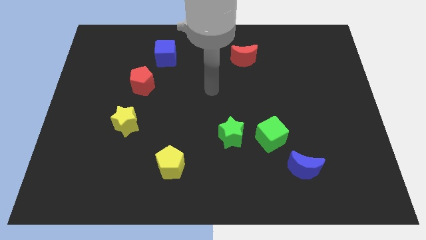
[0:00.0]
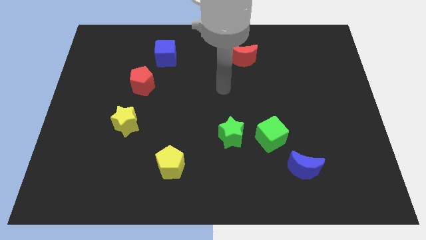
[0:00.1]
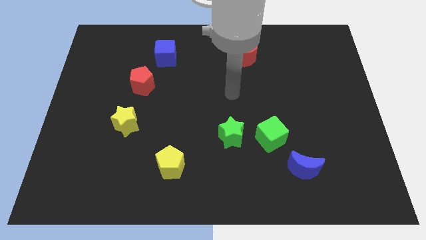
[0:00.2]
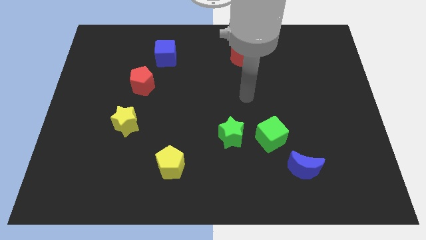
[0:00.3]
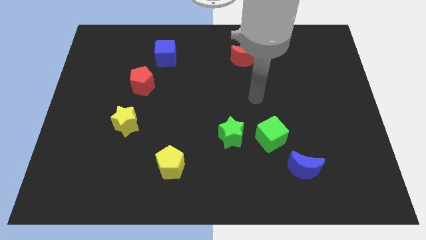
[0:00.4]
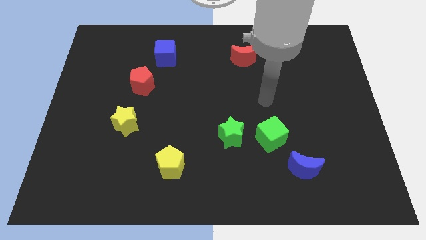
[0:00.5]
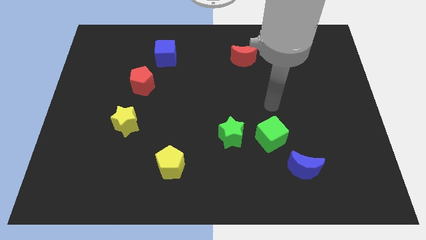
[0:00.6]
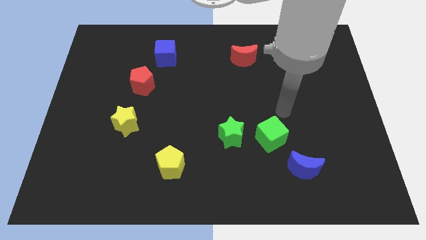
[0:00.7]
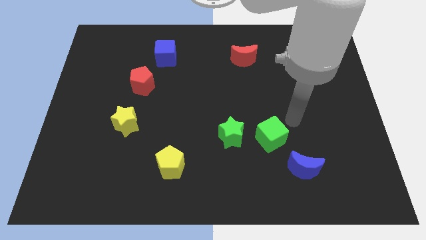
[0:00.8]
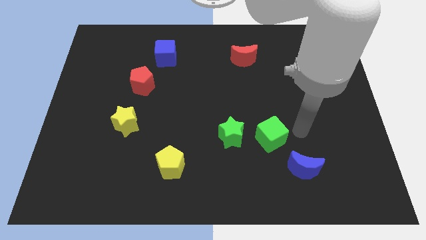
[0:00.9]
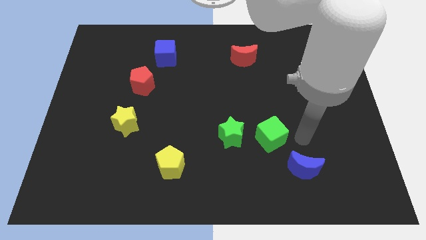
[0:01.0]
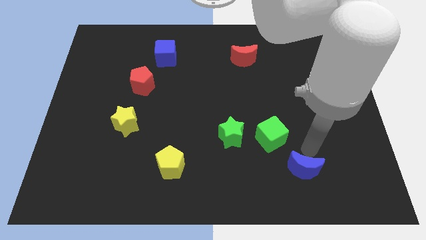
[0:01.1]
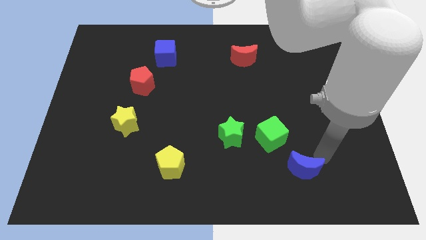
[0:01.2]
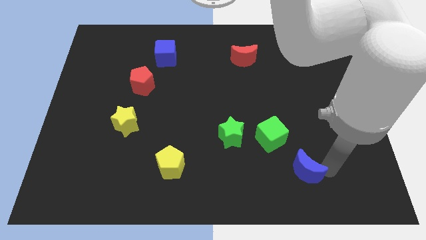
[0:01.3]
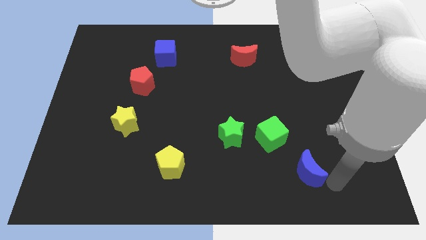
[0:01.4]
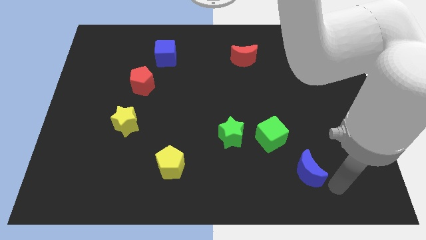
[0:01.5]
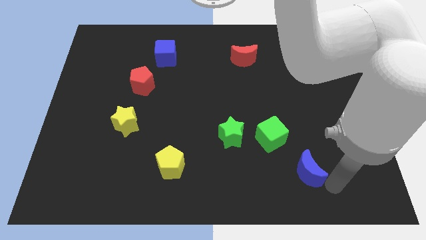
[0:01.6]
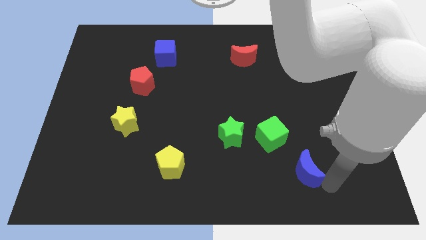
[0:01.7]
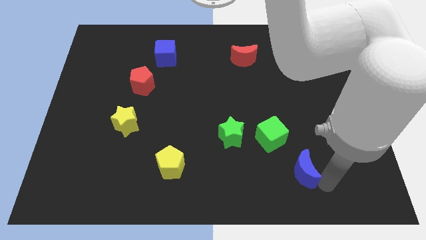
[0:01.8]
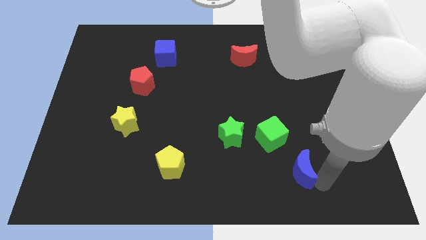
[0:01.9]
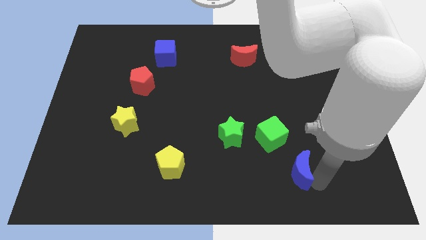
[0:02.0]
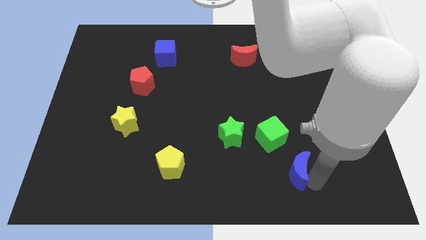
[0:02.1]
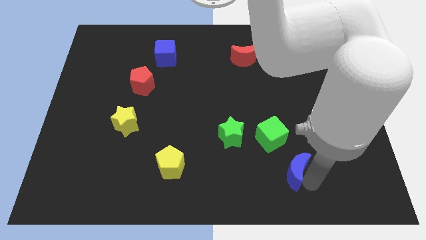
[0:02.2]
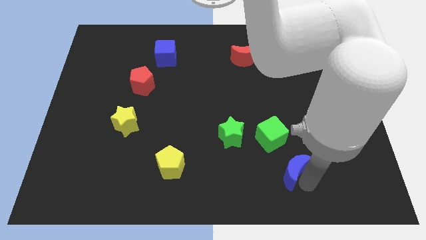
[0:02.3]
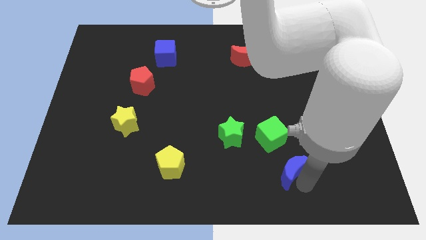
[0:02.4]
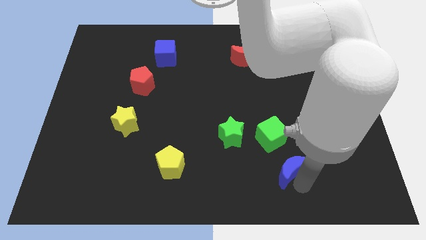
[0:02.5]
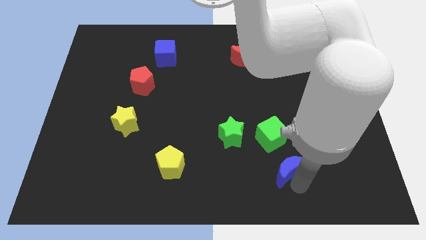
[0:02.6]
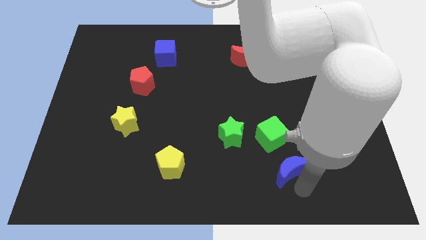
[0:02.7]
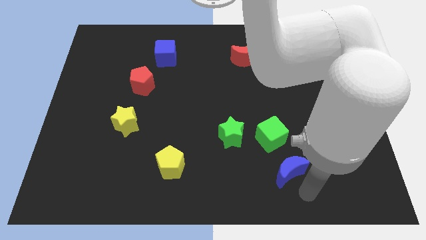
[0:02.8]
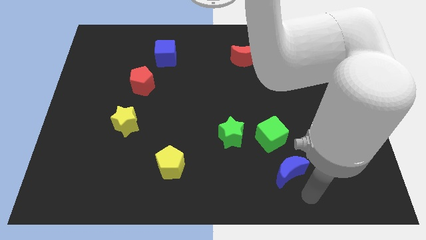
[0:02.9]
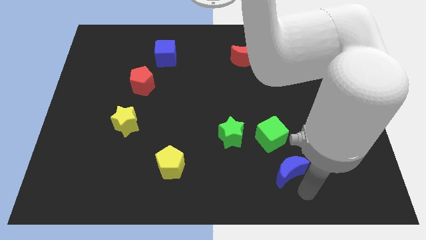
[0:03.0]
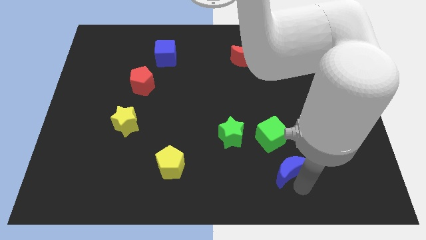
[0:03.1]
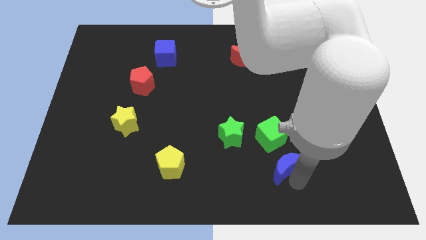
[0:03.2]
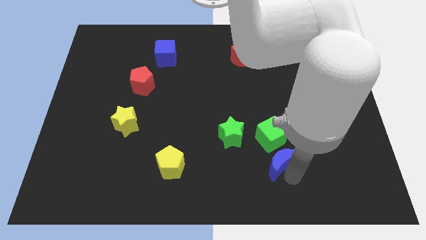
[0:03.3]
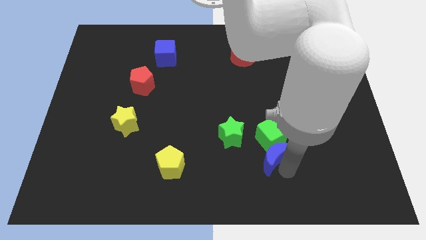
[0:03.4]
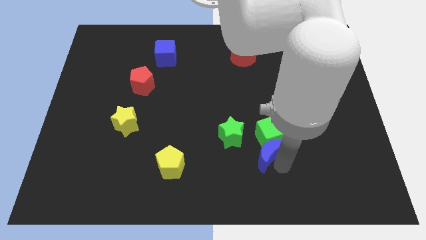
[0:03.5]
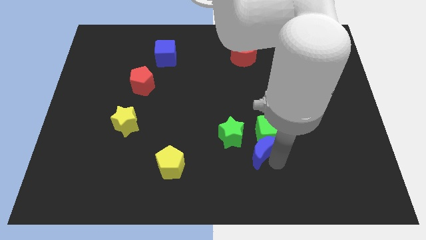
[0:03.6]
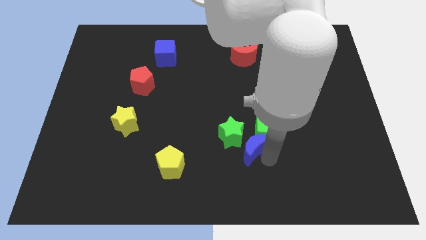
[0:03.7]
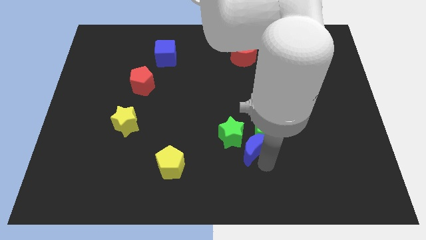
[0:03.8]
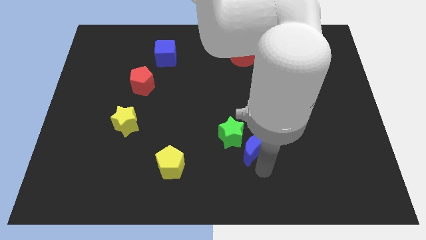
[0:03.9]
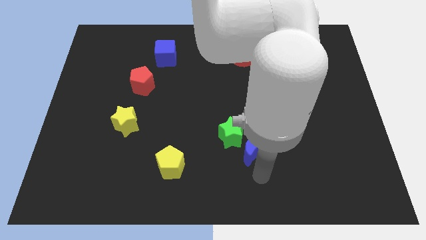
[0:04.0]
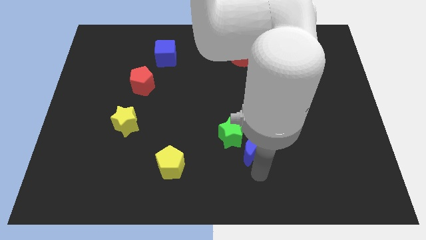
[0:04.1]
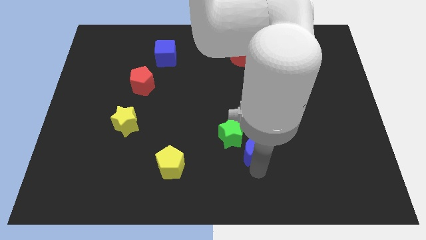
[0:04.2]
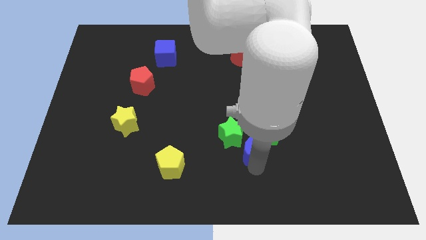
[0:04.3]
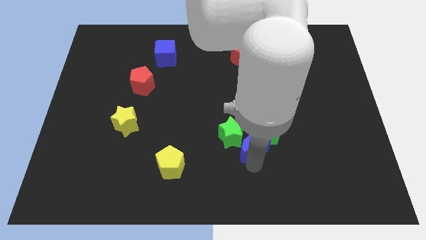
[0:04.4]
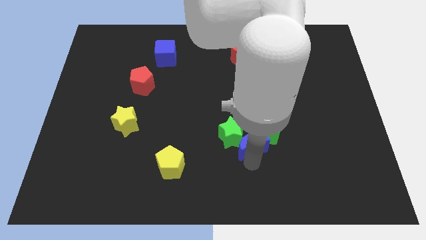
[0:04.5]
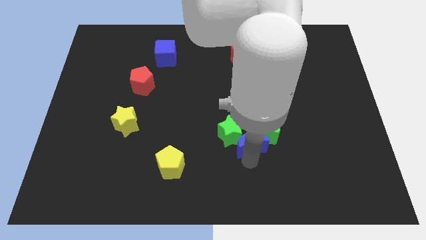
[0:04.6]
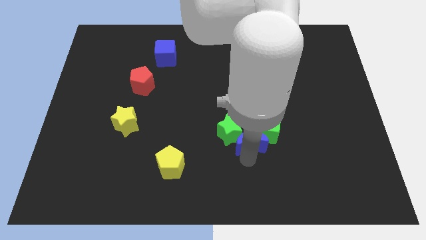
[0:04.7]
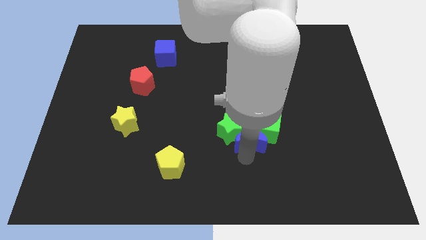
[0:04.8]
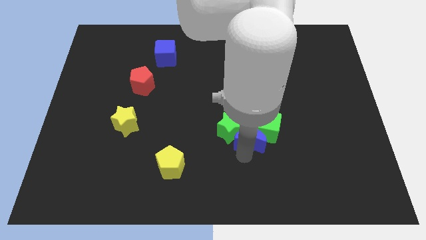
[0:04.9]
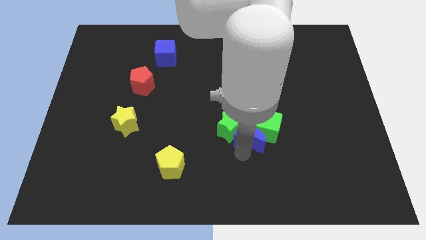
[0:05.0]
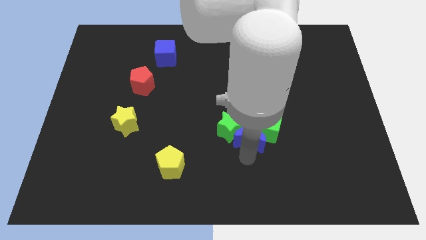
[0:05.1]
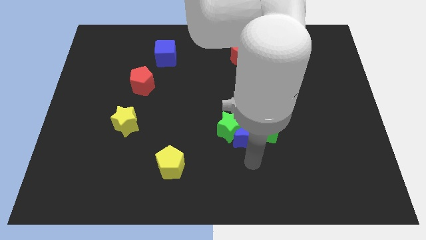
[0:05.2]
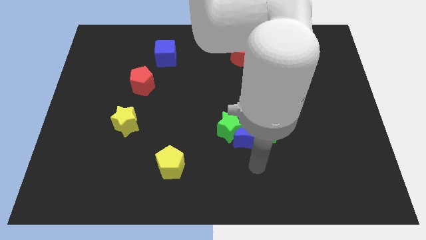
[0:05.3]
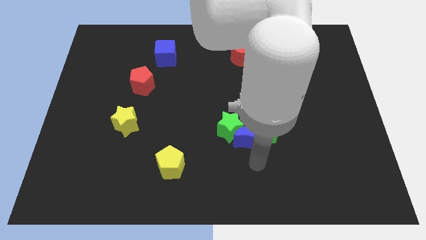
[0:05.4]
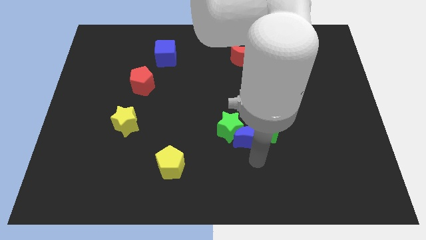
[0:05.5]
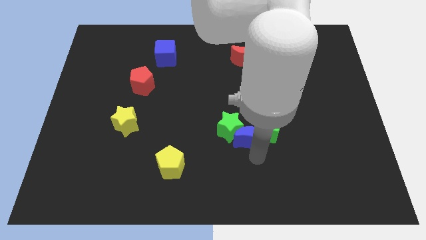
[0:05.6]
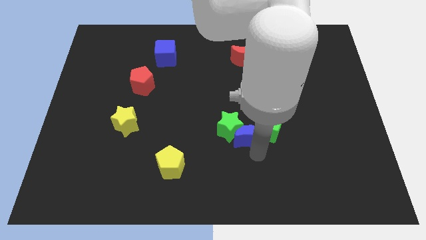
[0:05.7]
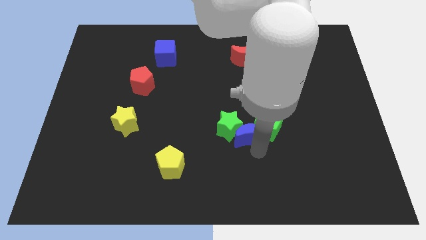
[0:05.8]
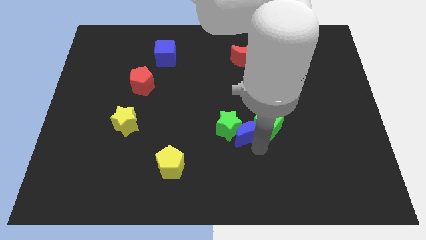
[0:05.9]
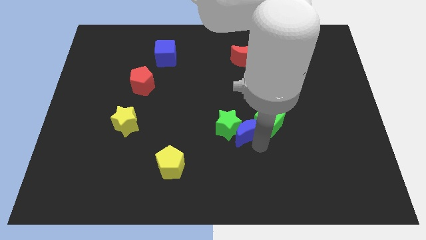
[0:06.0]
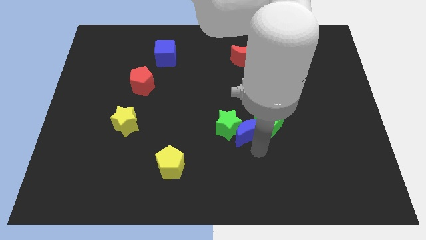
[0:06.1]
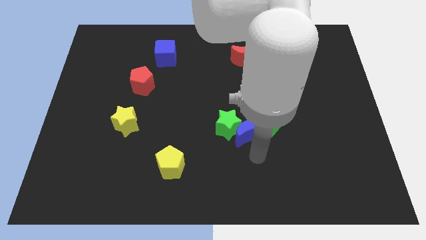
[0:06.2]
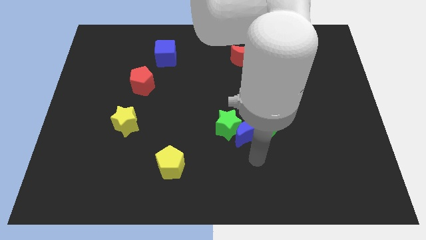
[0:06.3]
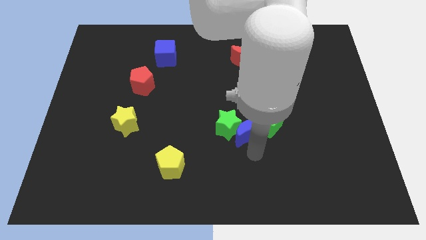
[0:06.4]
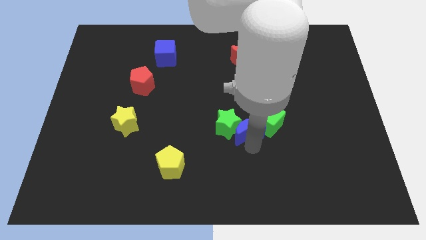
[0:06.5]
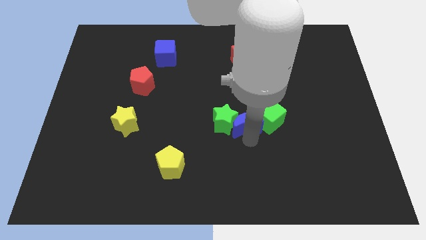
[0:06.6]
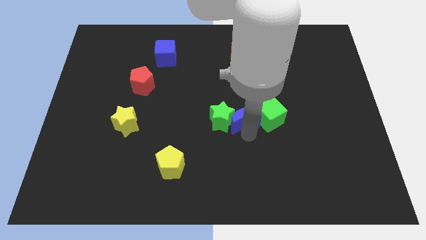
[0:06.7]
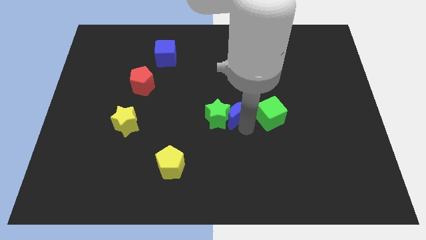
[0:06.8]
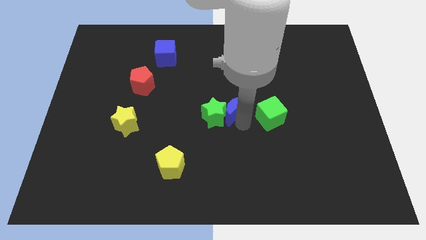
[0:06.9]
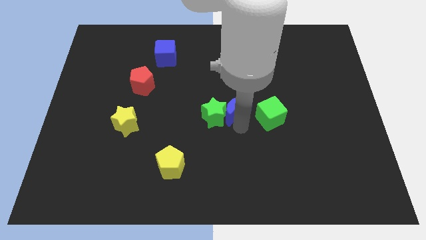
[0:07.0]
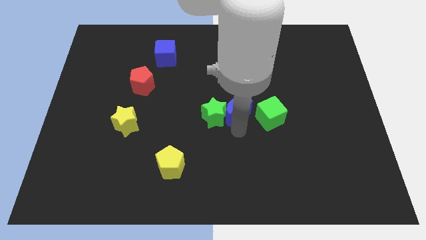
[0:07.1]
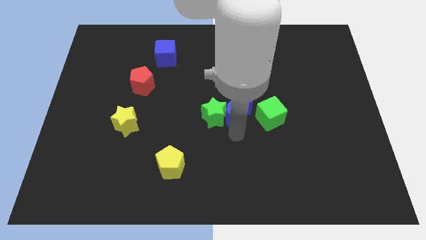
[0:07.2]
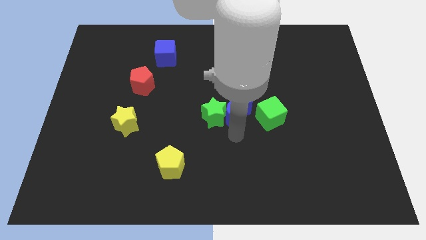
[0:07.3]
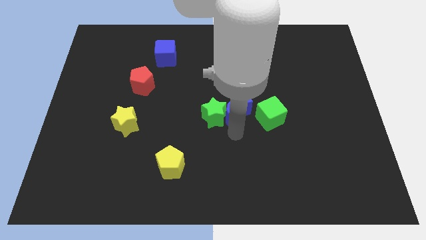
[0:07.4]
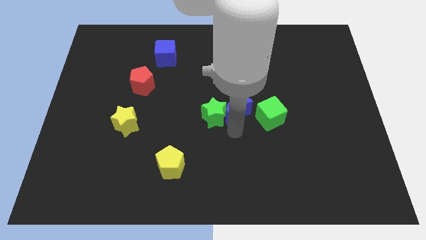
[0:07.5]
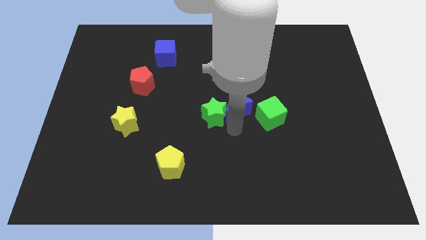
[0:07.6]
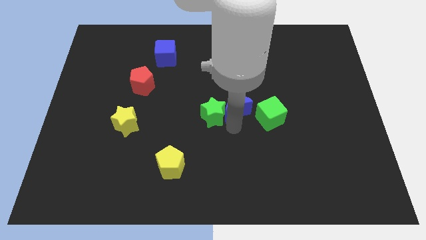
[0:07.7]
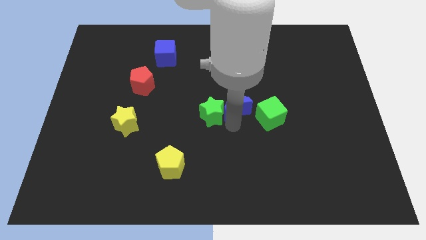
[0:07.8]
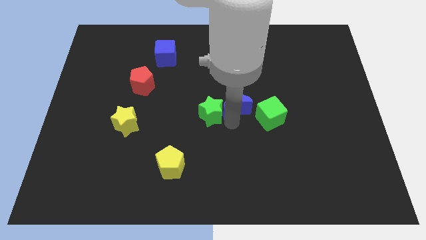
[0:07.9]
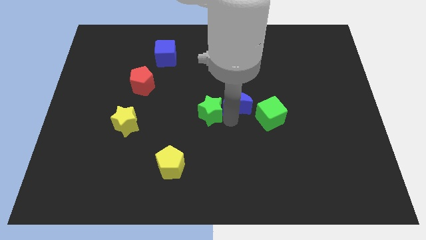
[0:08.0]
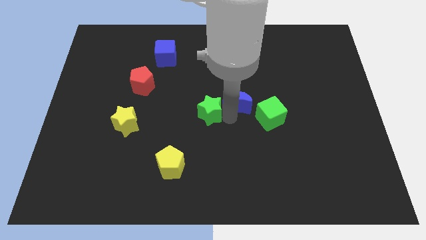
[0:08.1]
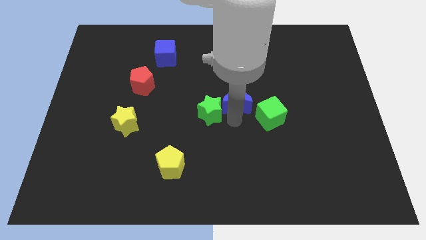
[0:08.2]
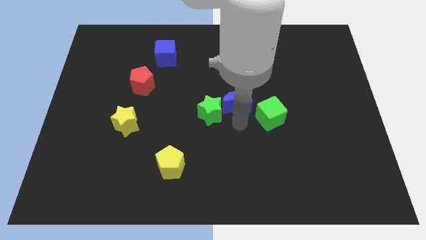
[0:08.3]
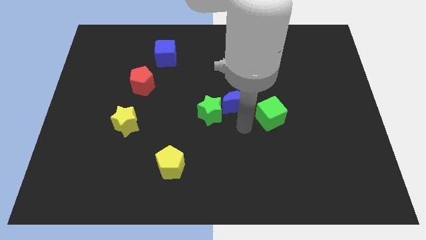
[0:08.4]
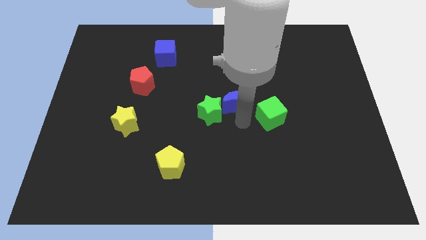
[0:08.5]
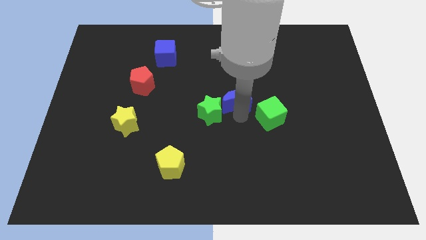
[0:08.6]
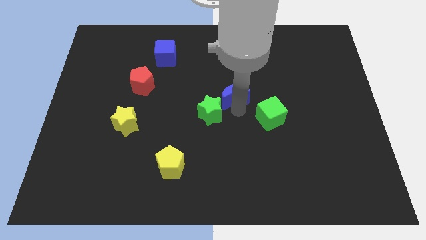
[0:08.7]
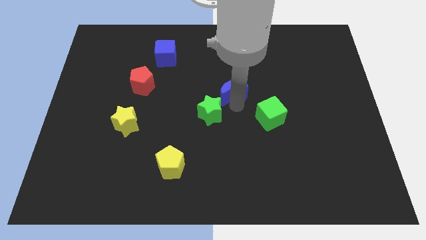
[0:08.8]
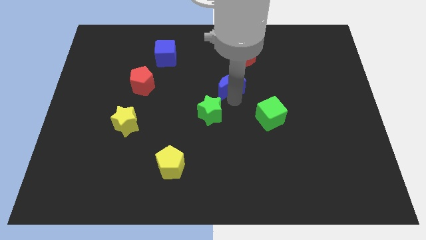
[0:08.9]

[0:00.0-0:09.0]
move the blue moon to the bottom left of the red moon
